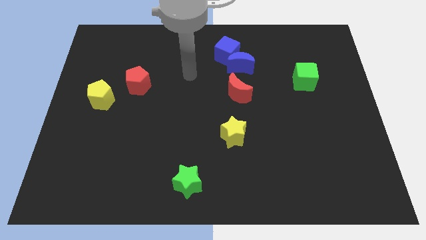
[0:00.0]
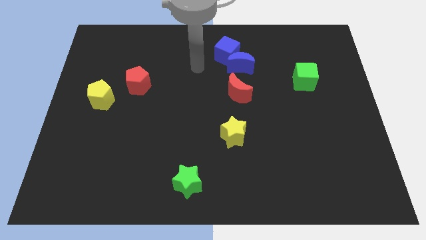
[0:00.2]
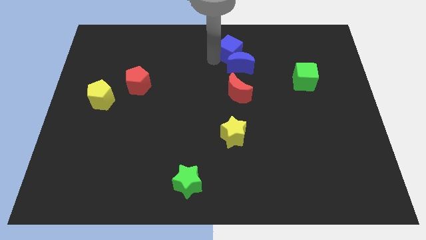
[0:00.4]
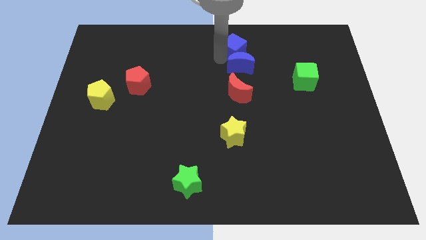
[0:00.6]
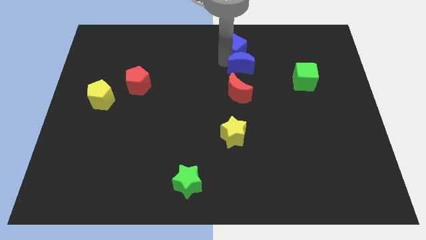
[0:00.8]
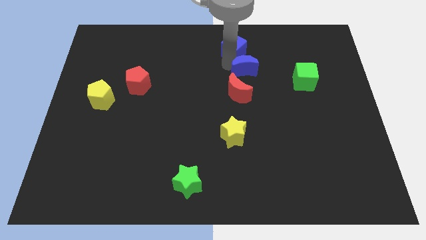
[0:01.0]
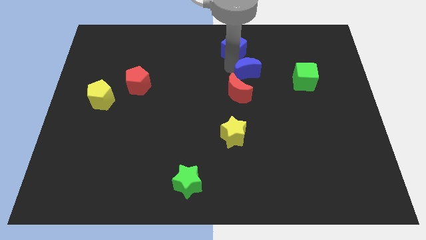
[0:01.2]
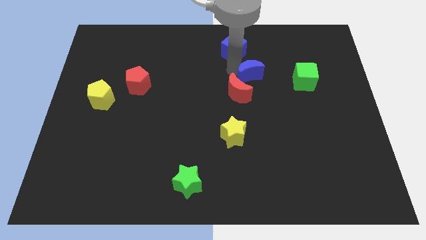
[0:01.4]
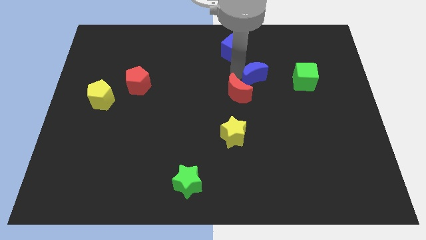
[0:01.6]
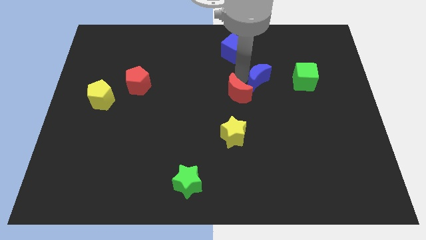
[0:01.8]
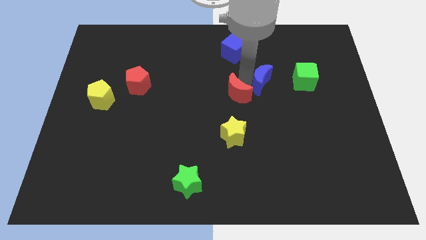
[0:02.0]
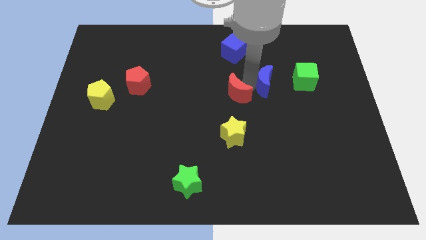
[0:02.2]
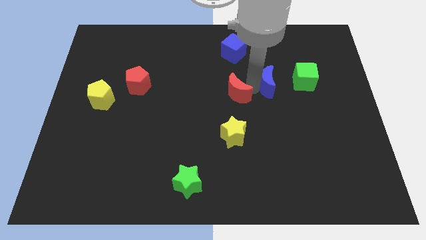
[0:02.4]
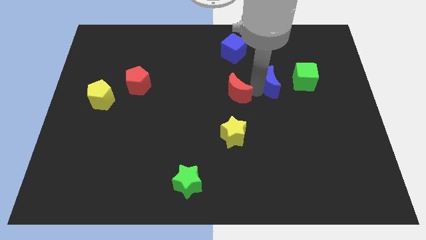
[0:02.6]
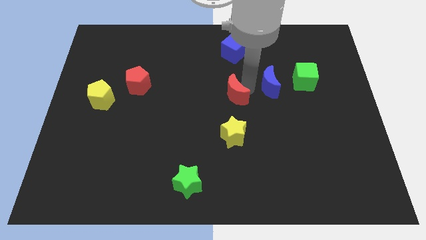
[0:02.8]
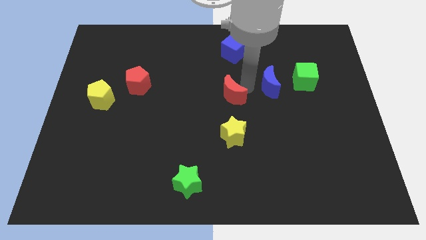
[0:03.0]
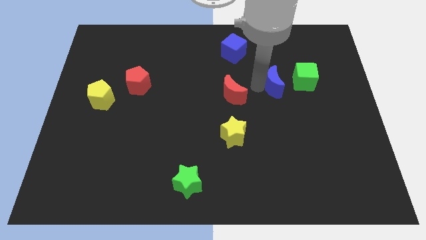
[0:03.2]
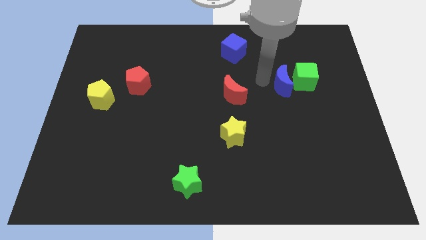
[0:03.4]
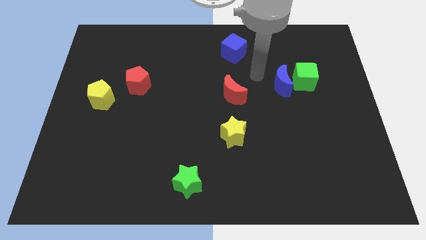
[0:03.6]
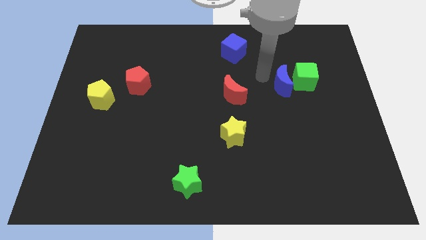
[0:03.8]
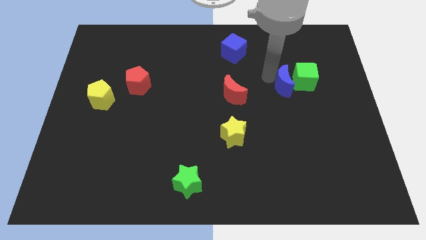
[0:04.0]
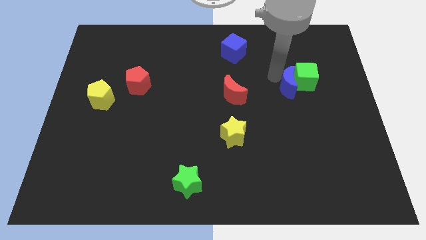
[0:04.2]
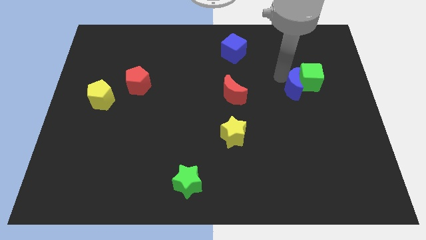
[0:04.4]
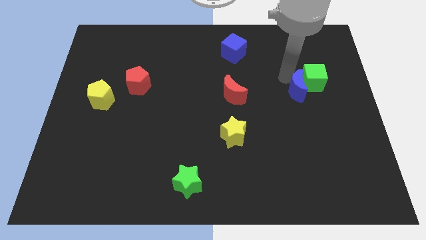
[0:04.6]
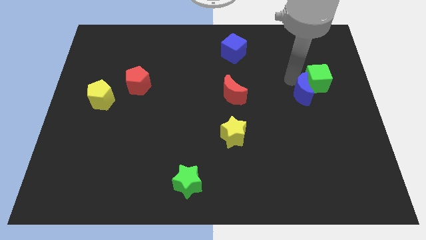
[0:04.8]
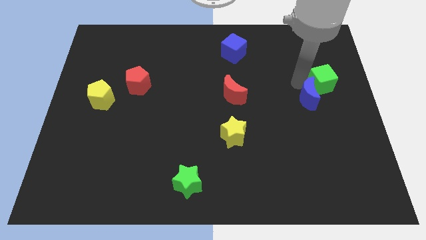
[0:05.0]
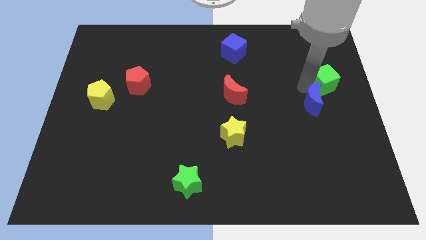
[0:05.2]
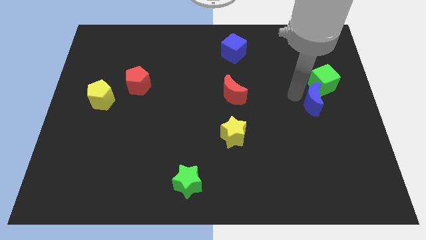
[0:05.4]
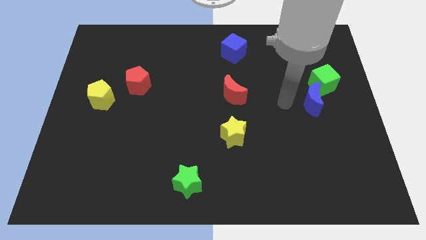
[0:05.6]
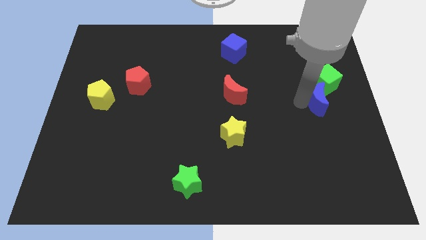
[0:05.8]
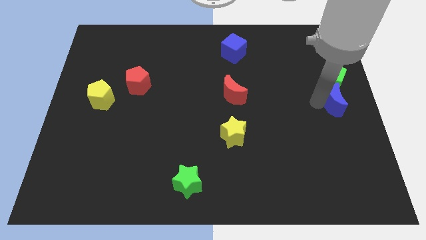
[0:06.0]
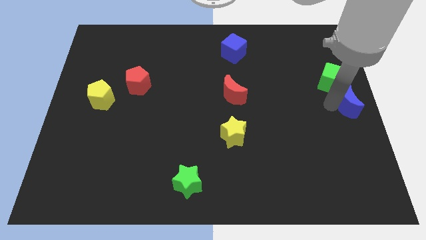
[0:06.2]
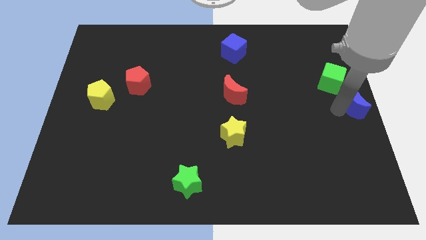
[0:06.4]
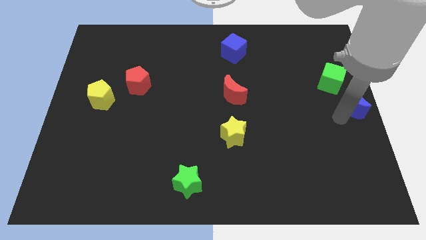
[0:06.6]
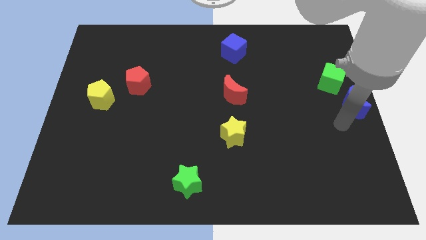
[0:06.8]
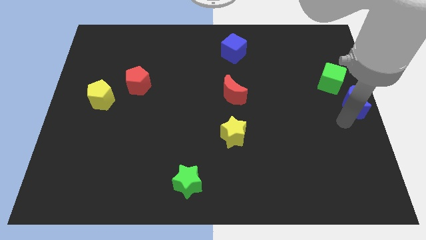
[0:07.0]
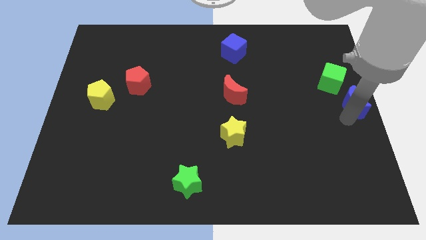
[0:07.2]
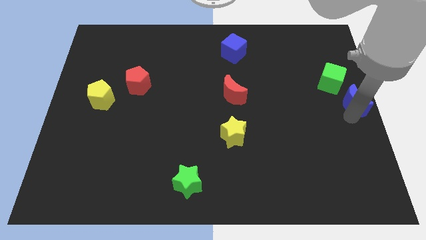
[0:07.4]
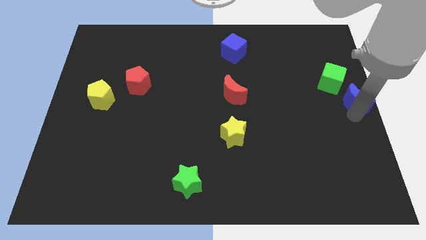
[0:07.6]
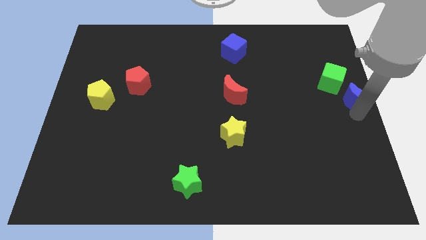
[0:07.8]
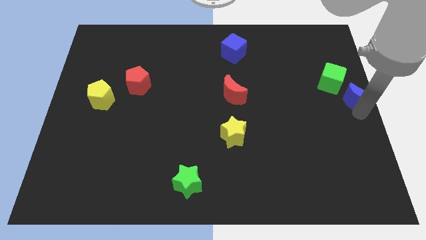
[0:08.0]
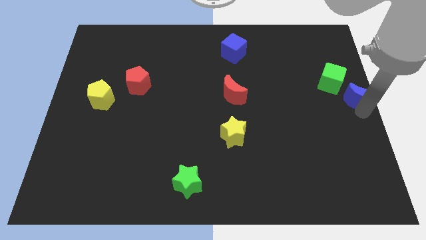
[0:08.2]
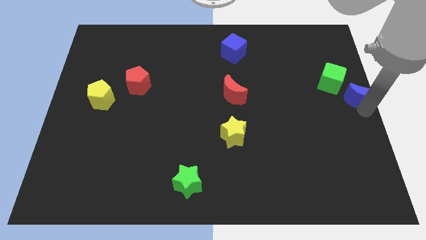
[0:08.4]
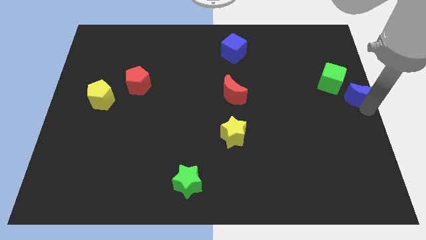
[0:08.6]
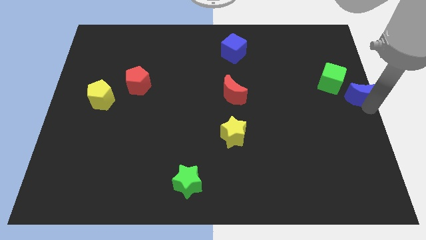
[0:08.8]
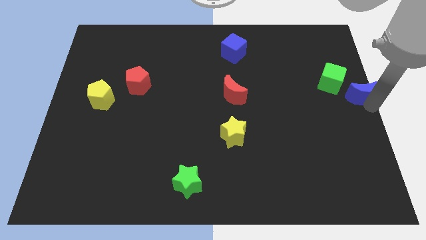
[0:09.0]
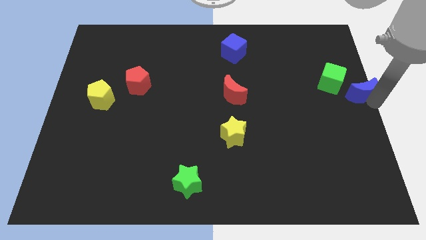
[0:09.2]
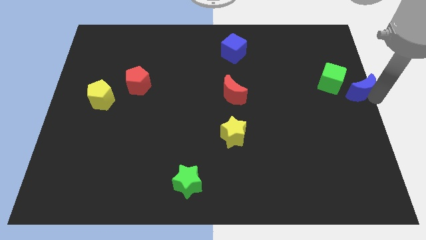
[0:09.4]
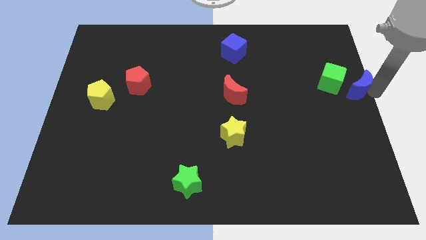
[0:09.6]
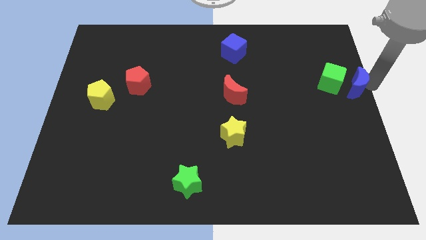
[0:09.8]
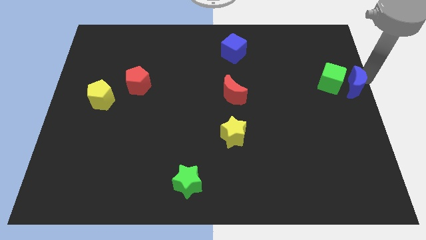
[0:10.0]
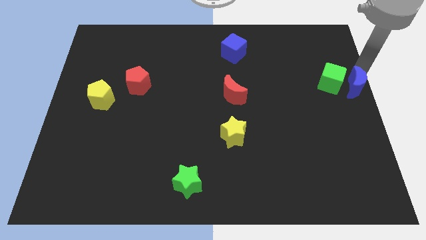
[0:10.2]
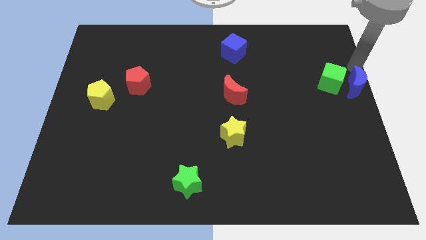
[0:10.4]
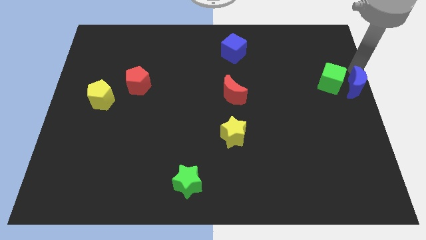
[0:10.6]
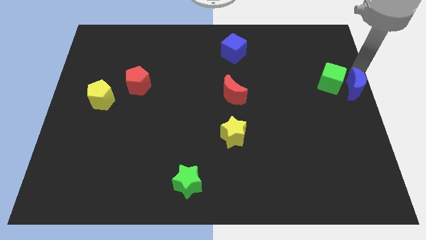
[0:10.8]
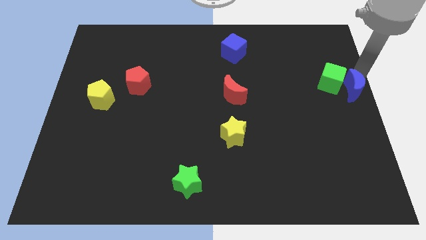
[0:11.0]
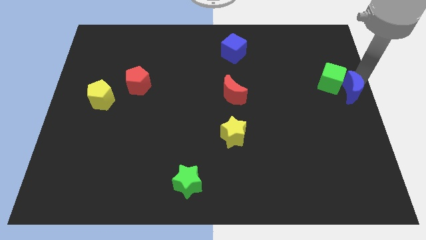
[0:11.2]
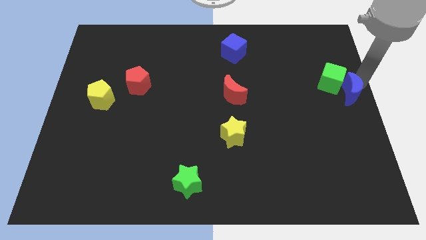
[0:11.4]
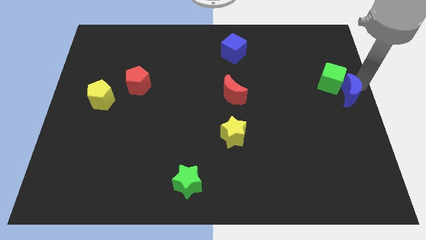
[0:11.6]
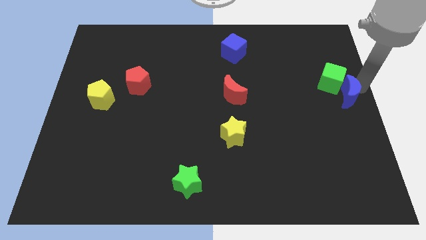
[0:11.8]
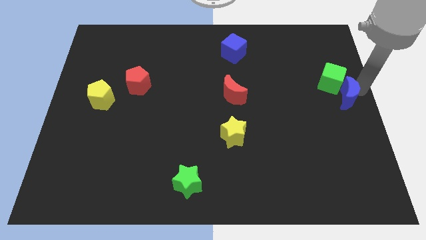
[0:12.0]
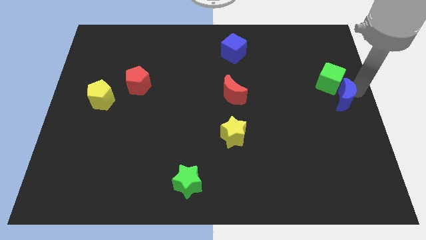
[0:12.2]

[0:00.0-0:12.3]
put the blue moon to the bottom right of the green cube
